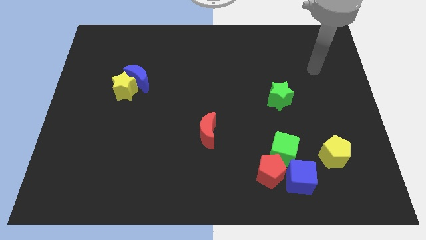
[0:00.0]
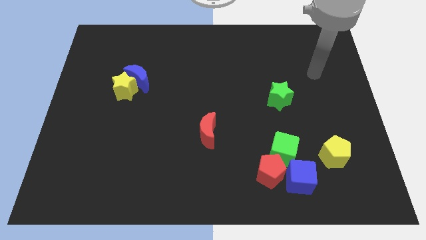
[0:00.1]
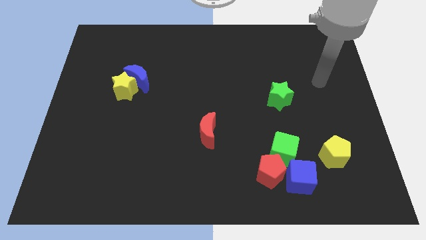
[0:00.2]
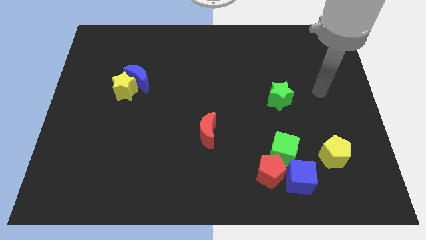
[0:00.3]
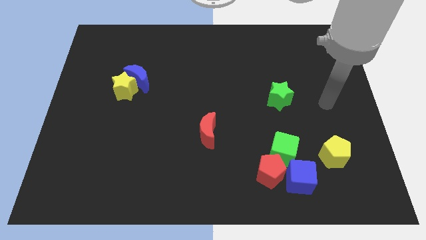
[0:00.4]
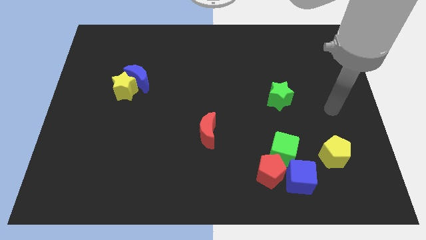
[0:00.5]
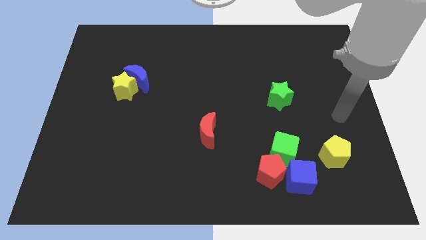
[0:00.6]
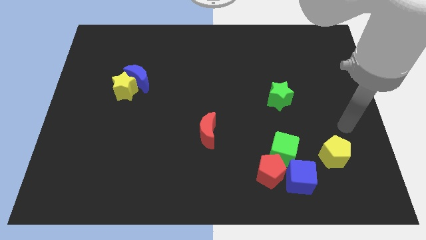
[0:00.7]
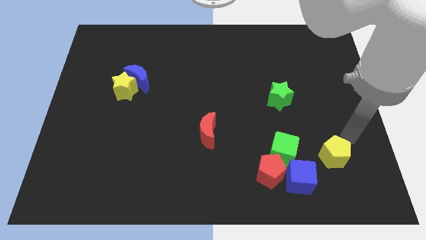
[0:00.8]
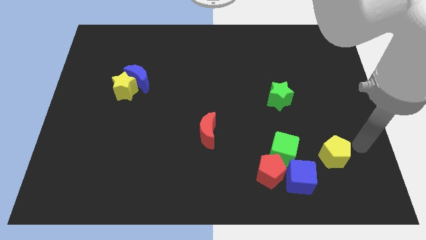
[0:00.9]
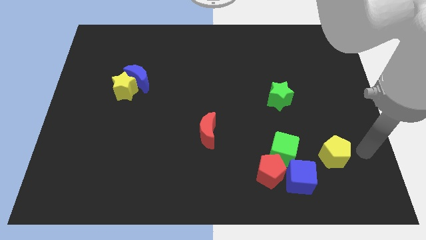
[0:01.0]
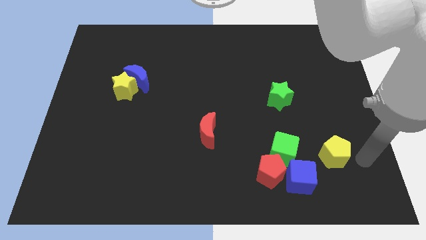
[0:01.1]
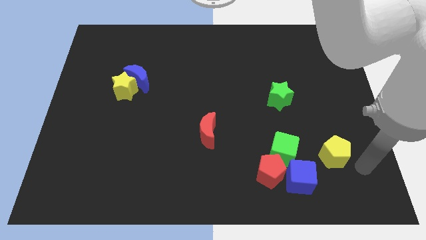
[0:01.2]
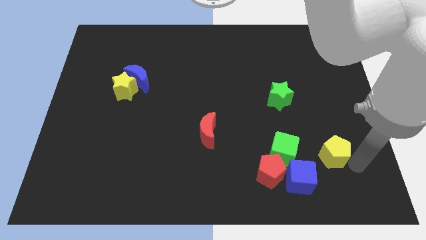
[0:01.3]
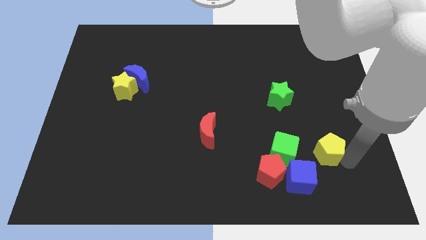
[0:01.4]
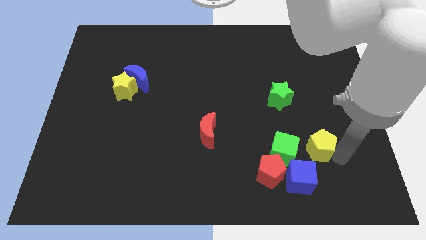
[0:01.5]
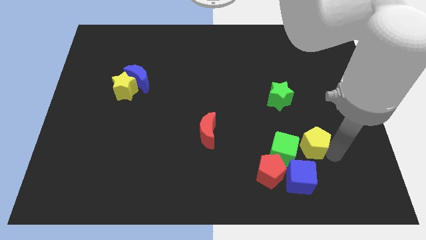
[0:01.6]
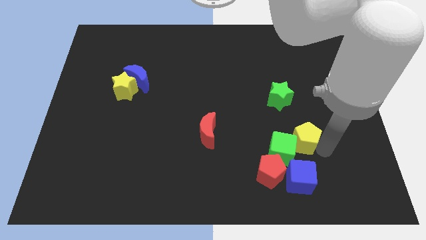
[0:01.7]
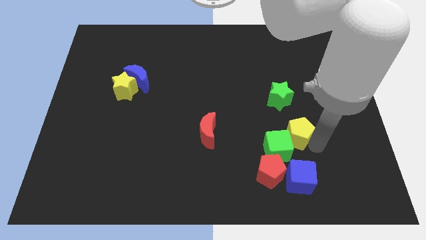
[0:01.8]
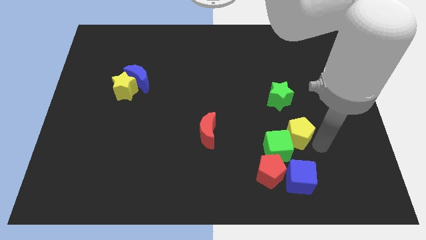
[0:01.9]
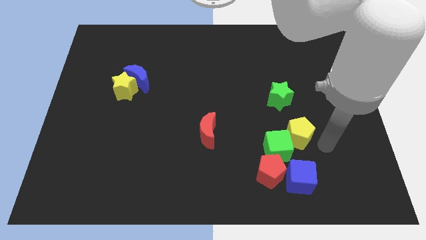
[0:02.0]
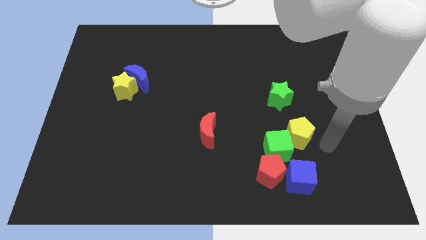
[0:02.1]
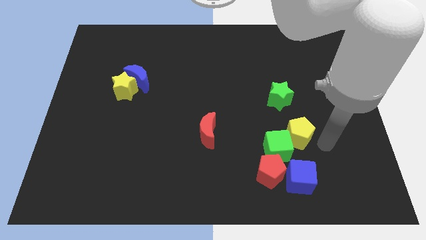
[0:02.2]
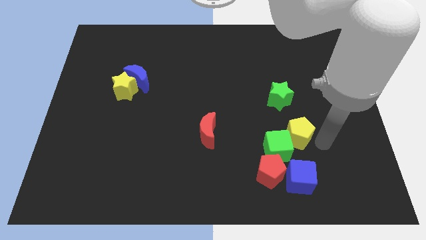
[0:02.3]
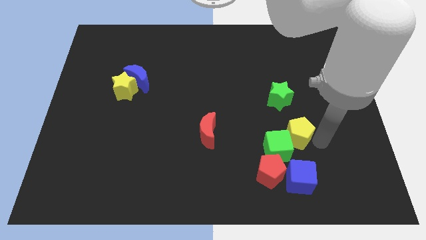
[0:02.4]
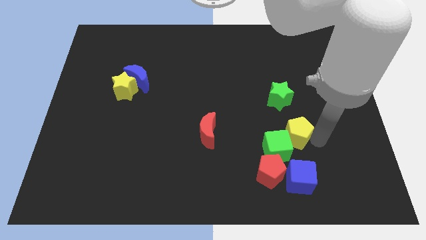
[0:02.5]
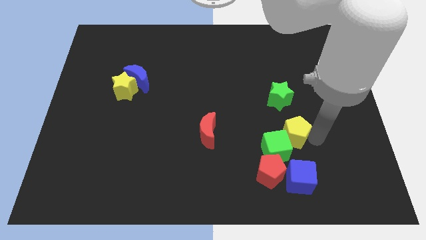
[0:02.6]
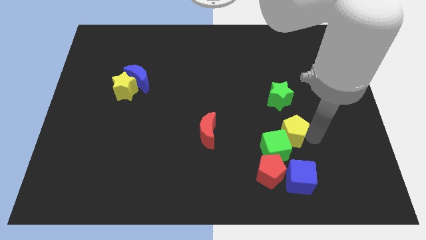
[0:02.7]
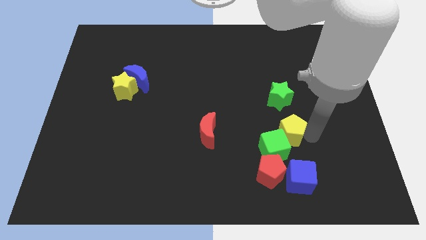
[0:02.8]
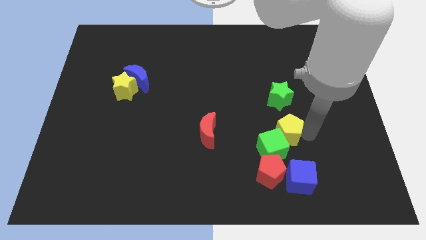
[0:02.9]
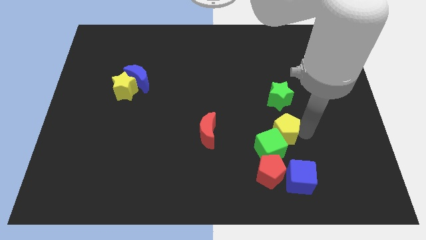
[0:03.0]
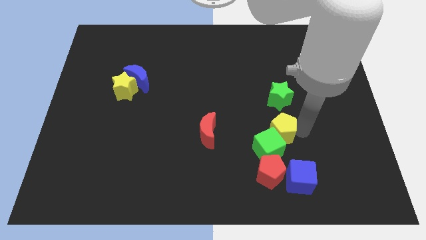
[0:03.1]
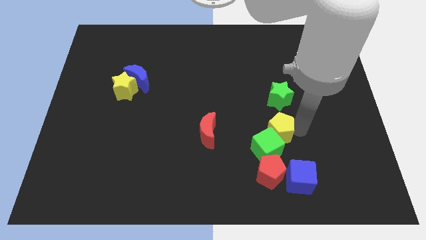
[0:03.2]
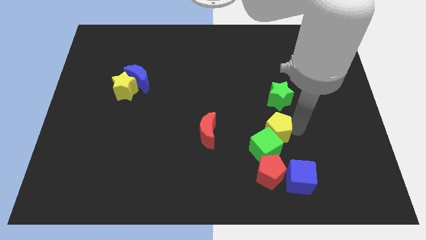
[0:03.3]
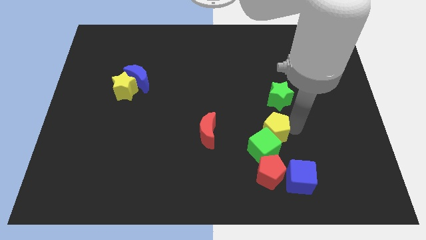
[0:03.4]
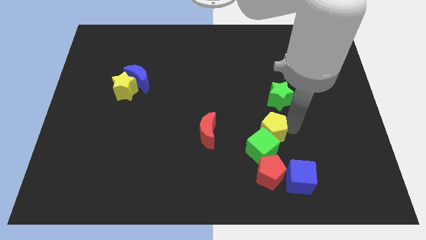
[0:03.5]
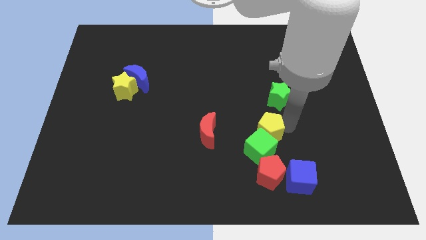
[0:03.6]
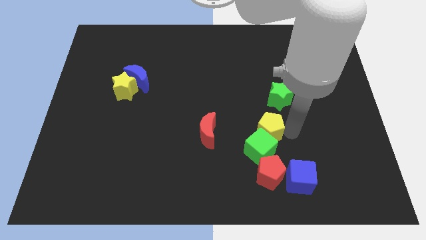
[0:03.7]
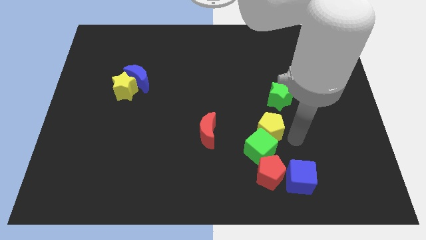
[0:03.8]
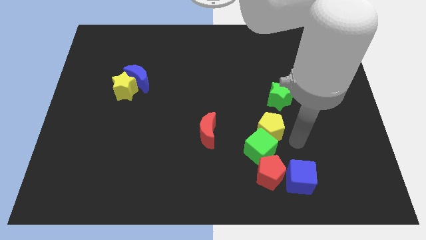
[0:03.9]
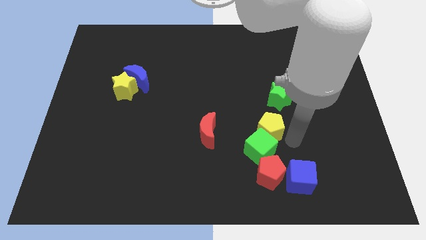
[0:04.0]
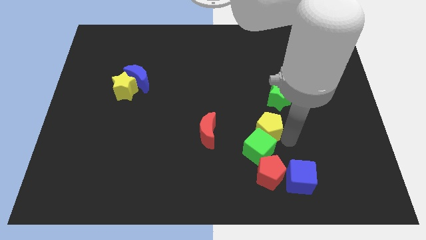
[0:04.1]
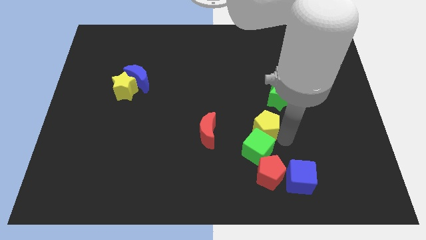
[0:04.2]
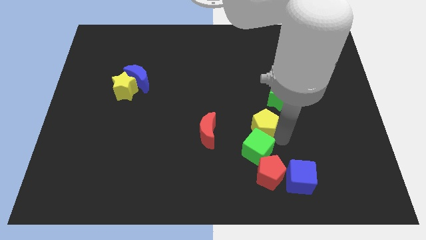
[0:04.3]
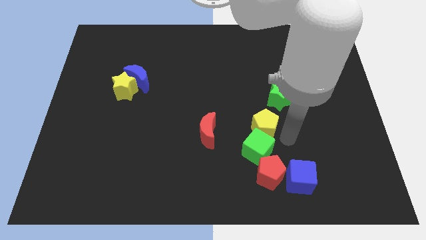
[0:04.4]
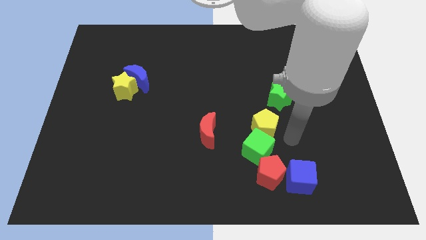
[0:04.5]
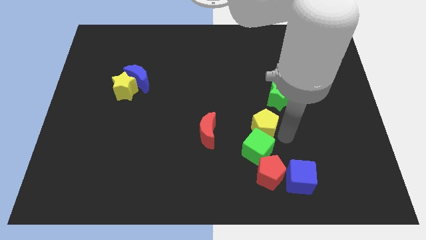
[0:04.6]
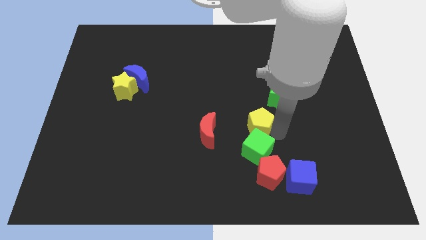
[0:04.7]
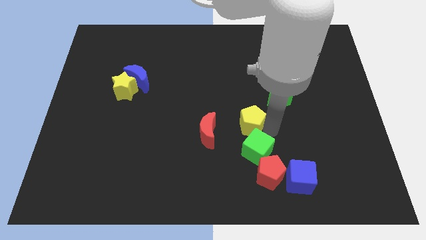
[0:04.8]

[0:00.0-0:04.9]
move the yellow pentagon to the middle

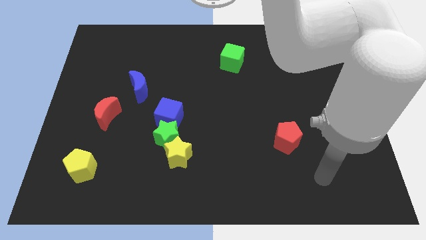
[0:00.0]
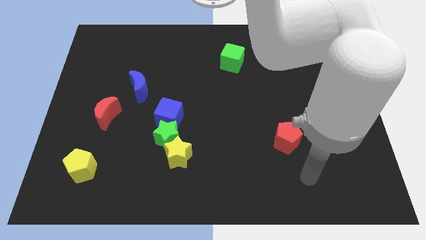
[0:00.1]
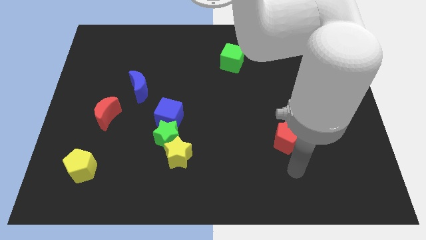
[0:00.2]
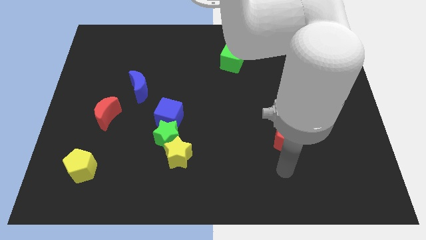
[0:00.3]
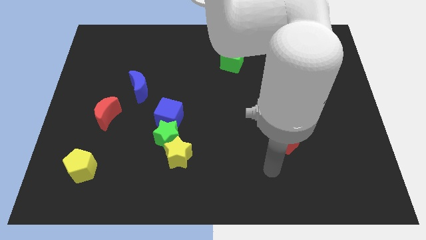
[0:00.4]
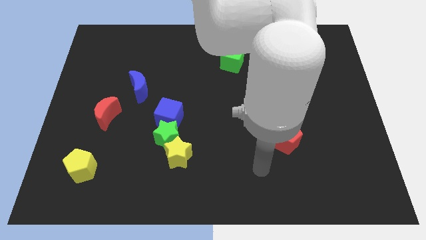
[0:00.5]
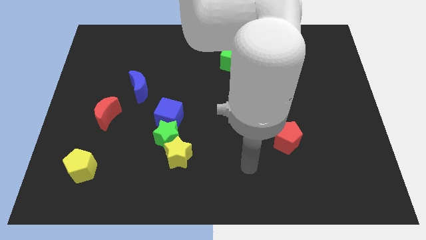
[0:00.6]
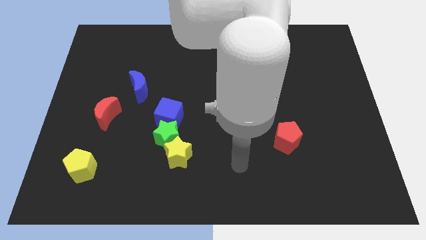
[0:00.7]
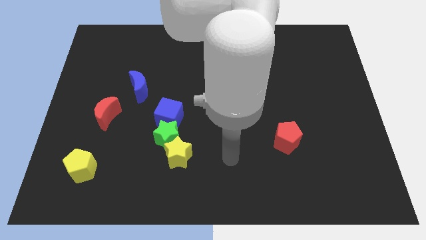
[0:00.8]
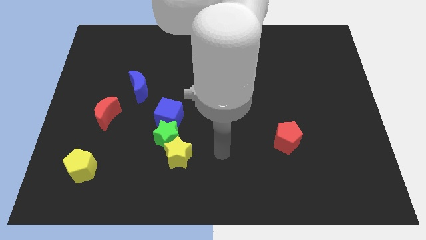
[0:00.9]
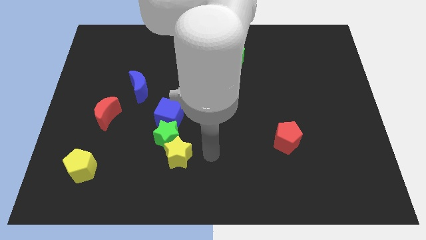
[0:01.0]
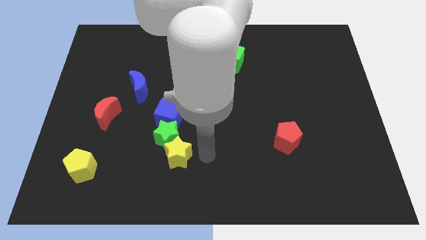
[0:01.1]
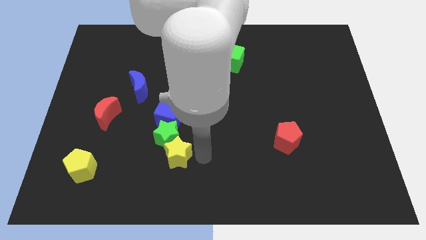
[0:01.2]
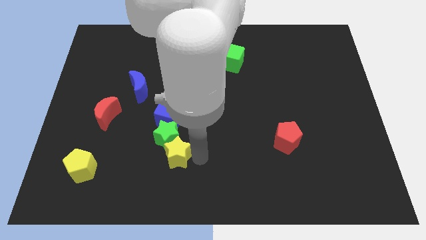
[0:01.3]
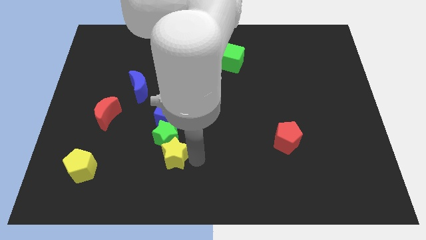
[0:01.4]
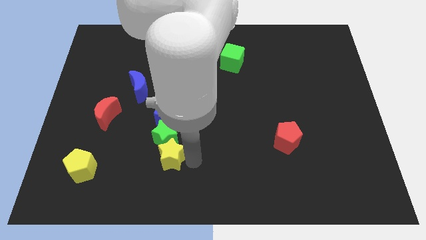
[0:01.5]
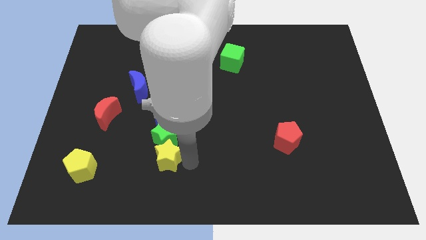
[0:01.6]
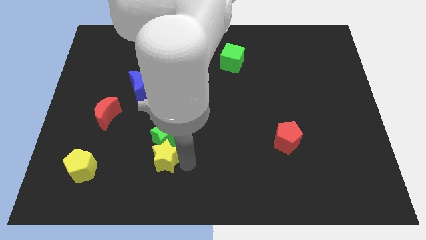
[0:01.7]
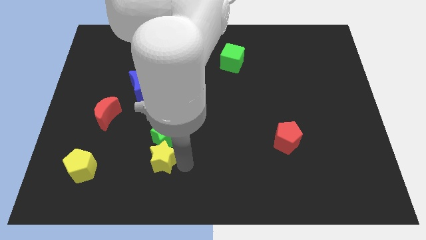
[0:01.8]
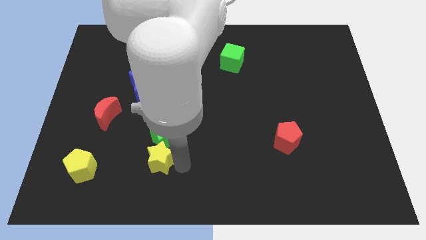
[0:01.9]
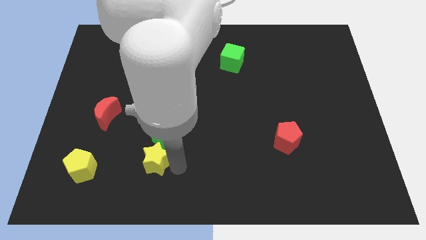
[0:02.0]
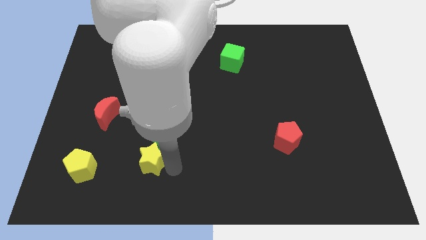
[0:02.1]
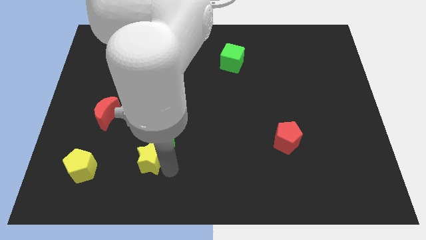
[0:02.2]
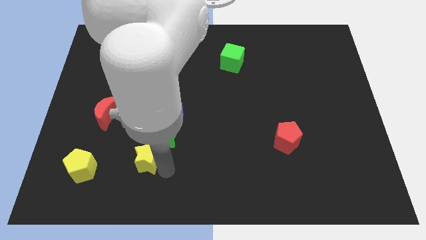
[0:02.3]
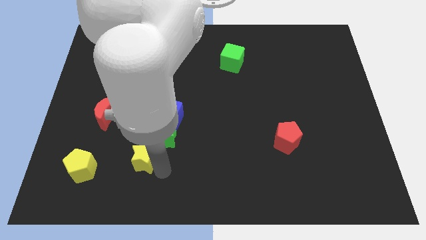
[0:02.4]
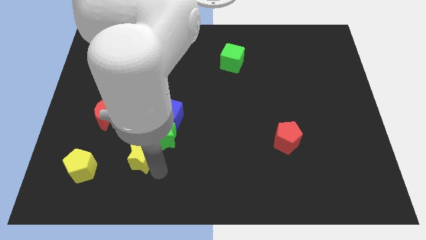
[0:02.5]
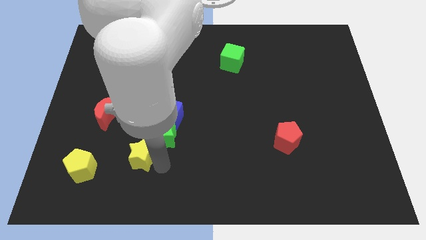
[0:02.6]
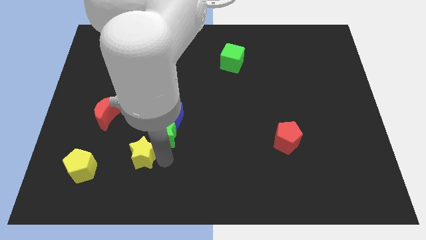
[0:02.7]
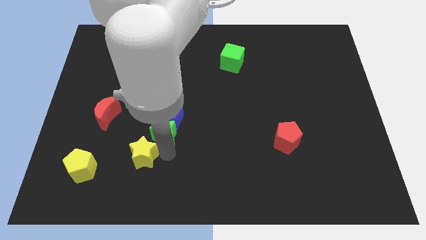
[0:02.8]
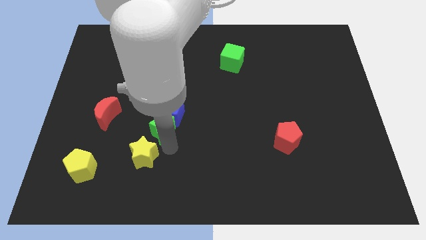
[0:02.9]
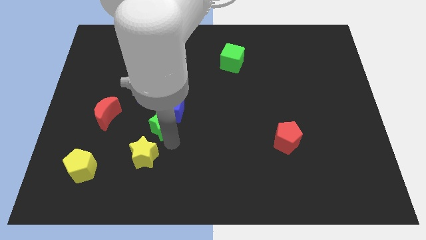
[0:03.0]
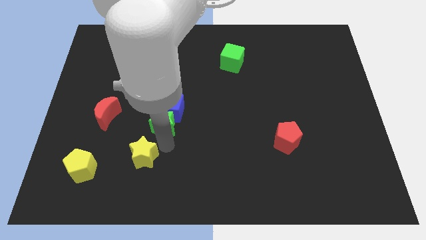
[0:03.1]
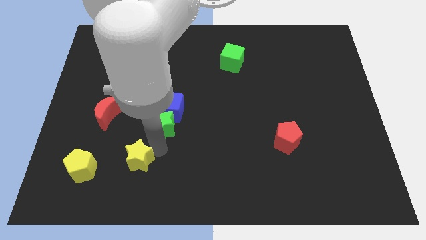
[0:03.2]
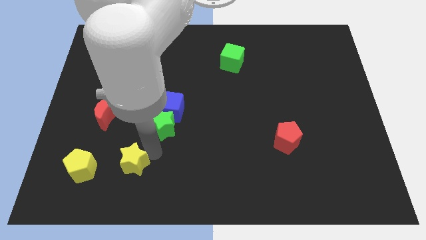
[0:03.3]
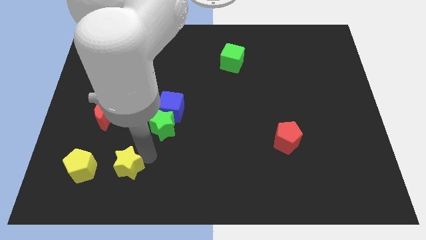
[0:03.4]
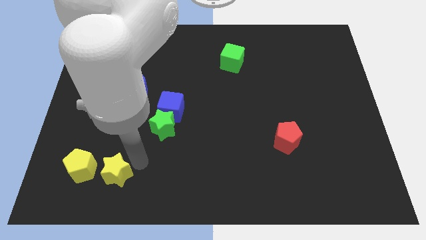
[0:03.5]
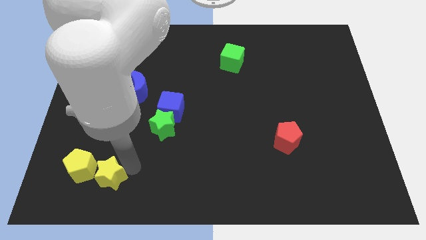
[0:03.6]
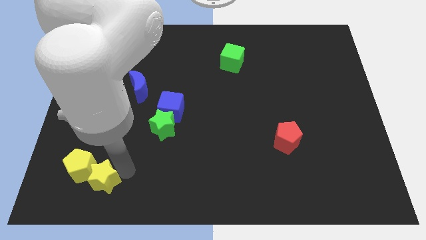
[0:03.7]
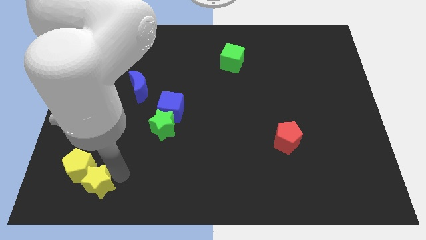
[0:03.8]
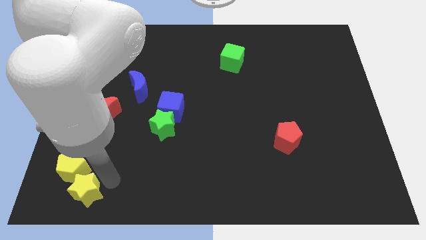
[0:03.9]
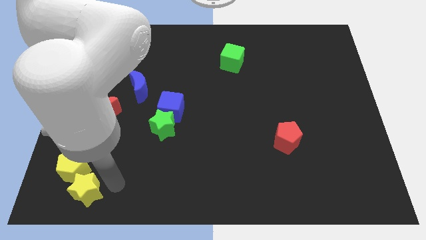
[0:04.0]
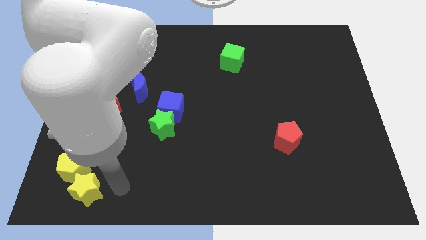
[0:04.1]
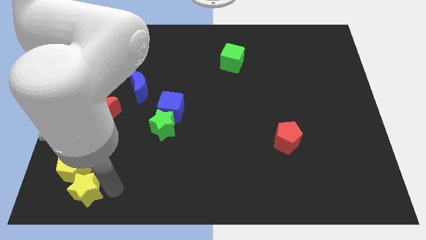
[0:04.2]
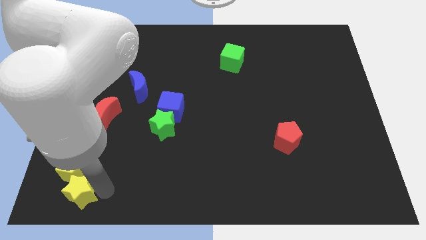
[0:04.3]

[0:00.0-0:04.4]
put the yellow star to the bottom left of the board
